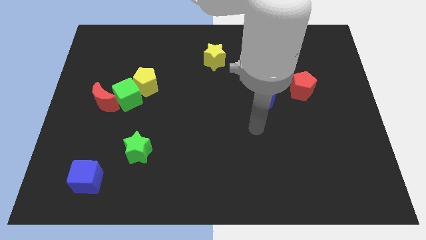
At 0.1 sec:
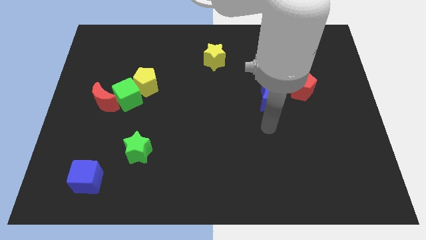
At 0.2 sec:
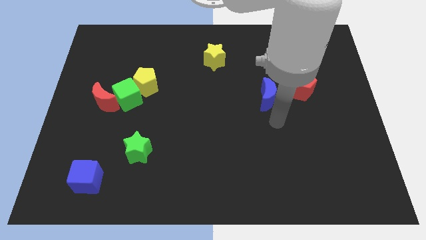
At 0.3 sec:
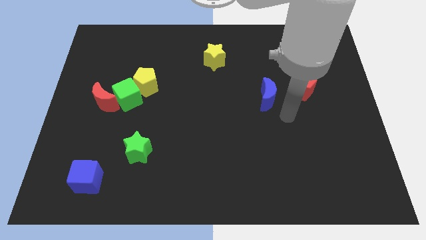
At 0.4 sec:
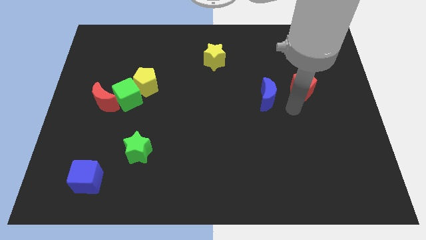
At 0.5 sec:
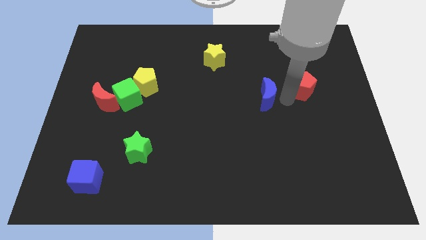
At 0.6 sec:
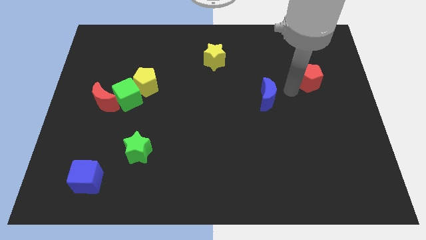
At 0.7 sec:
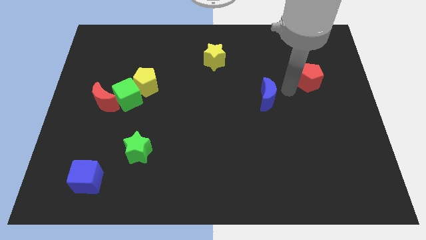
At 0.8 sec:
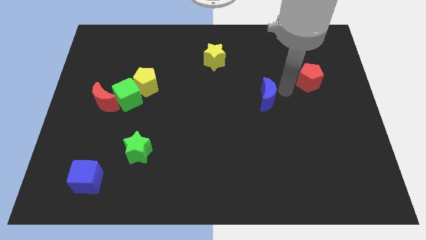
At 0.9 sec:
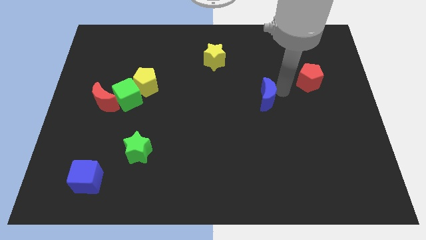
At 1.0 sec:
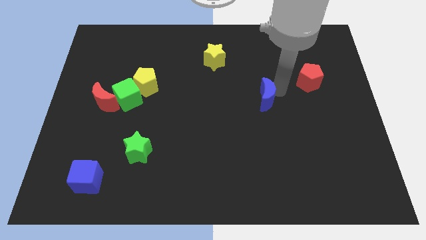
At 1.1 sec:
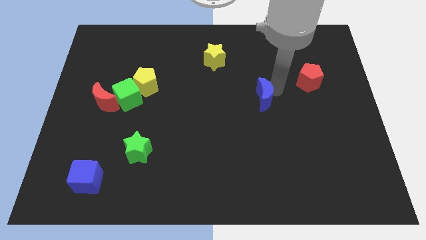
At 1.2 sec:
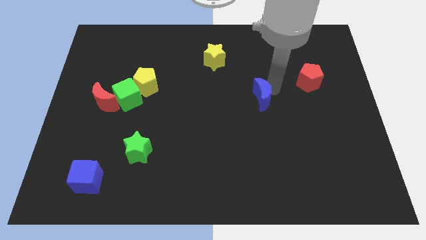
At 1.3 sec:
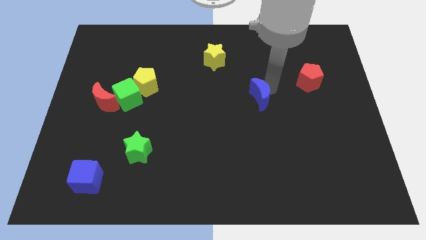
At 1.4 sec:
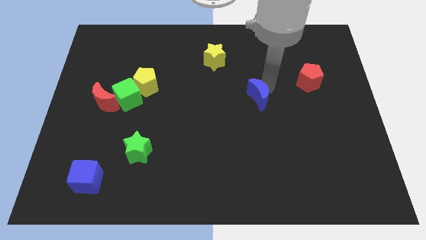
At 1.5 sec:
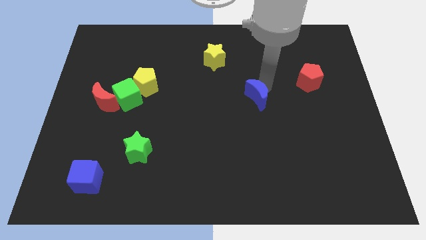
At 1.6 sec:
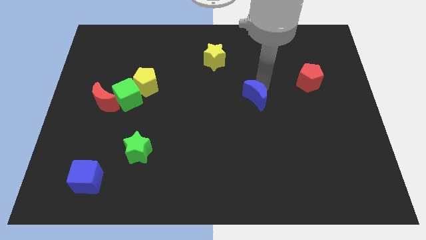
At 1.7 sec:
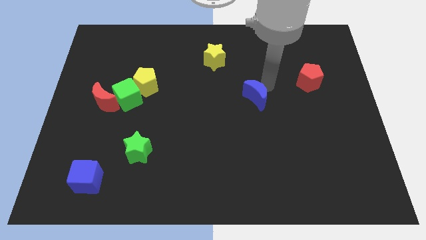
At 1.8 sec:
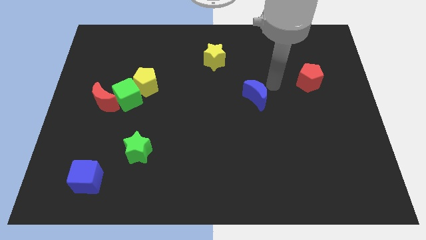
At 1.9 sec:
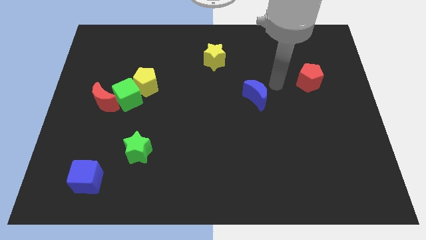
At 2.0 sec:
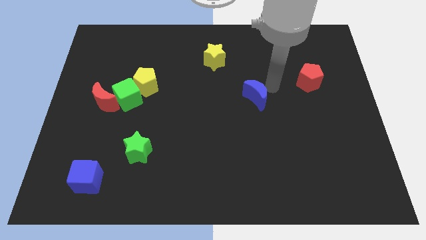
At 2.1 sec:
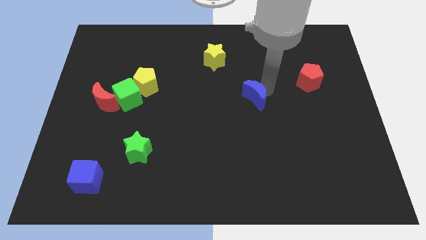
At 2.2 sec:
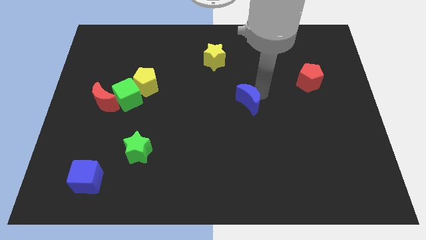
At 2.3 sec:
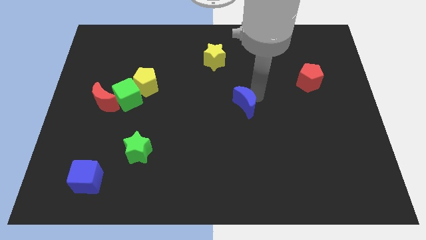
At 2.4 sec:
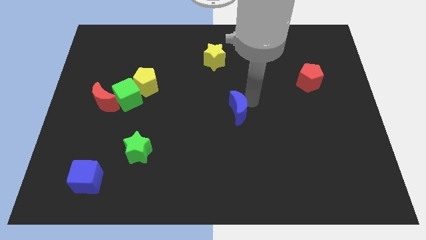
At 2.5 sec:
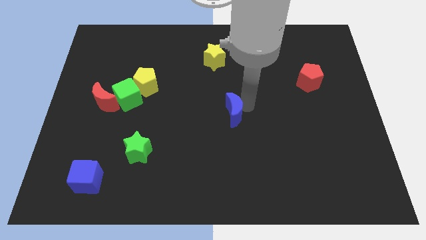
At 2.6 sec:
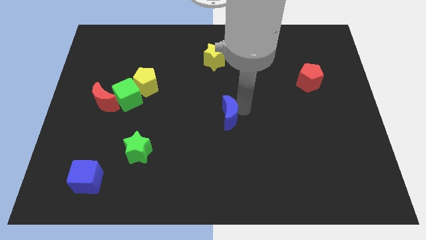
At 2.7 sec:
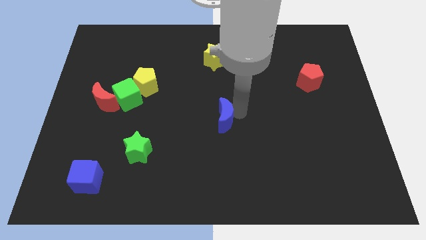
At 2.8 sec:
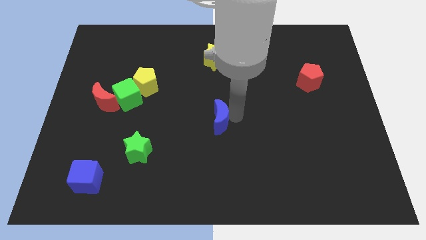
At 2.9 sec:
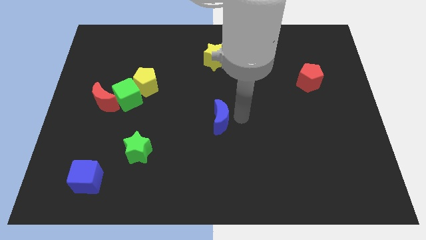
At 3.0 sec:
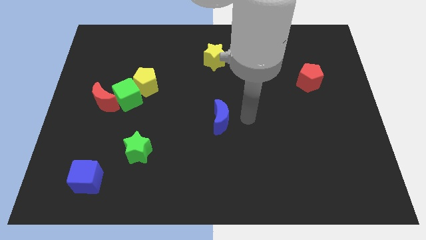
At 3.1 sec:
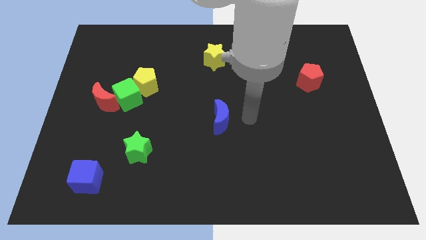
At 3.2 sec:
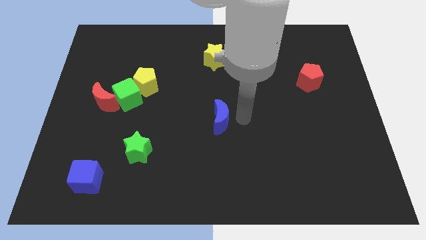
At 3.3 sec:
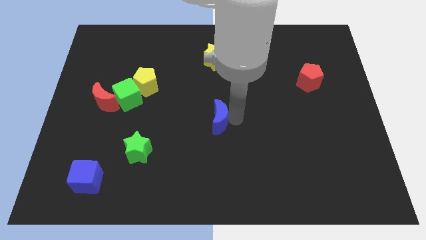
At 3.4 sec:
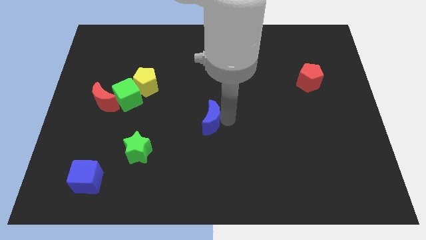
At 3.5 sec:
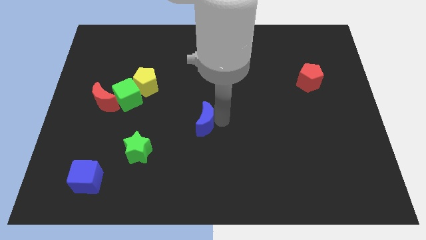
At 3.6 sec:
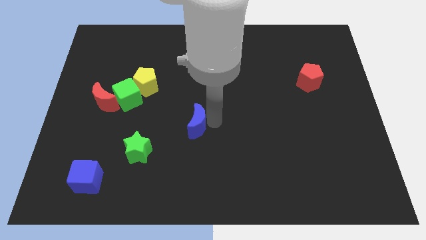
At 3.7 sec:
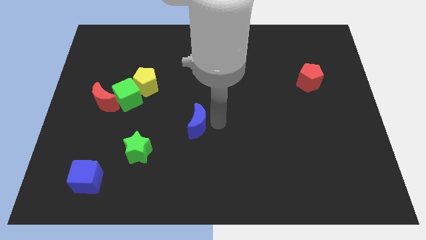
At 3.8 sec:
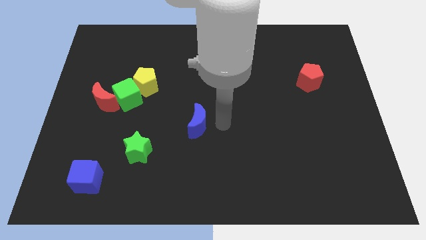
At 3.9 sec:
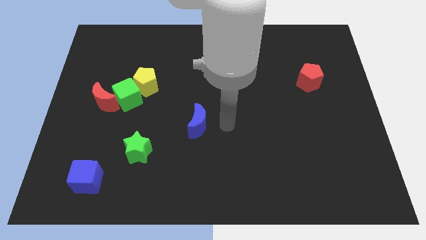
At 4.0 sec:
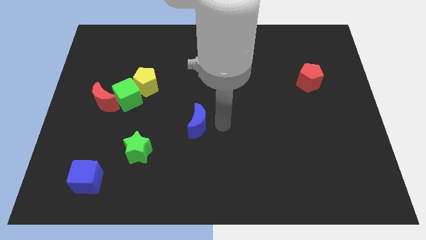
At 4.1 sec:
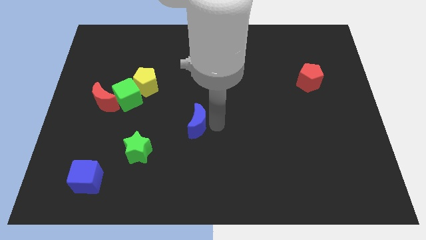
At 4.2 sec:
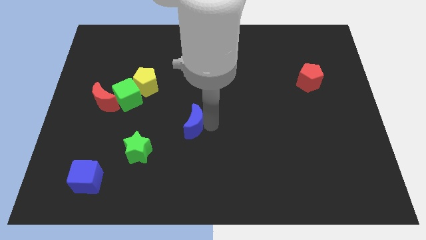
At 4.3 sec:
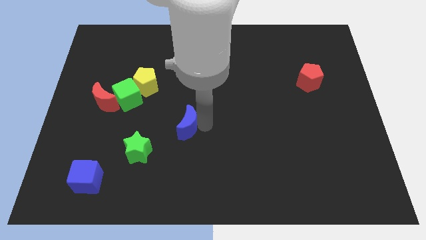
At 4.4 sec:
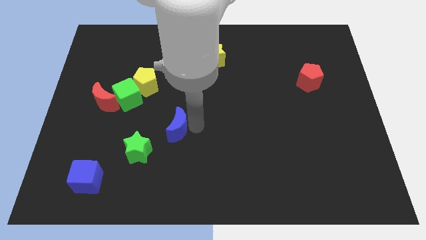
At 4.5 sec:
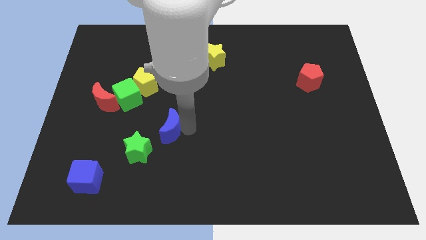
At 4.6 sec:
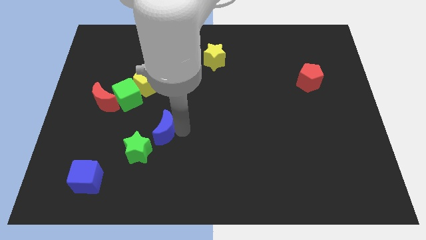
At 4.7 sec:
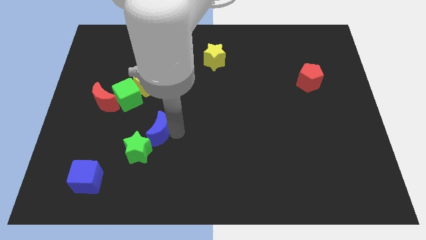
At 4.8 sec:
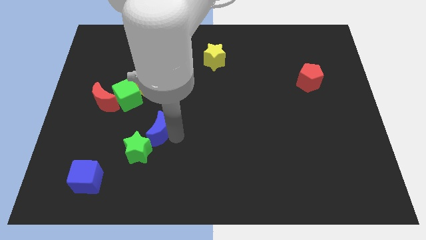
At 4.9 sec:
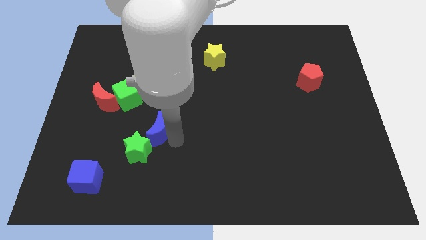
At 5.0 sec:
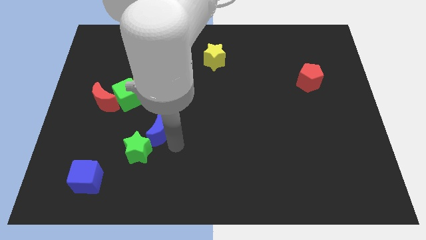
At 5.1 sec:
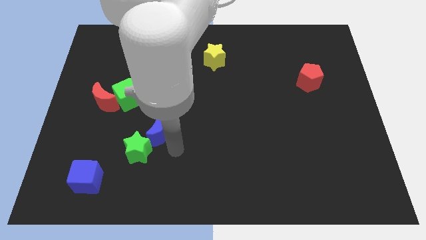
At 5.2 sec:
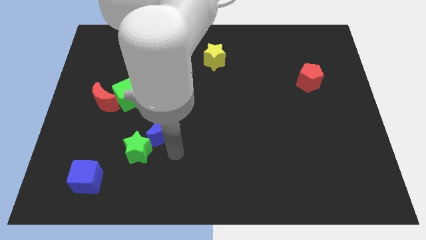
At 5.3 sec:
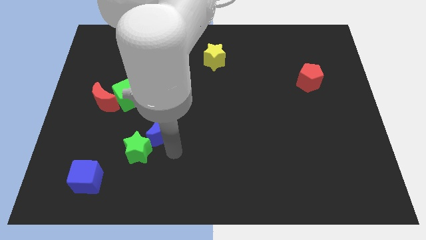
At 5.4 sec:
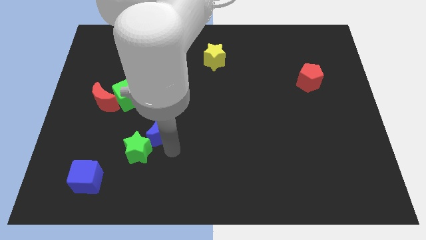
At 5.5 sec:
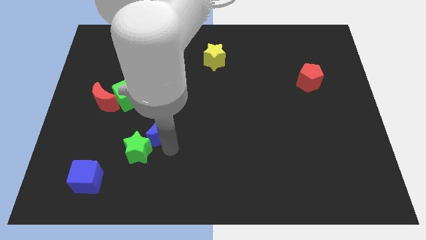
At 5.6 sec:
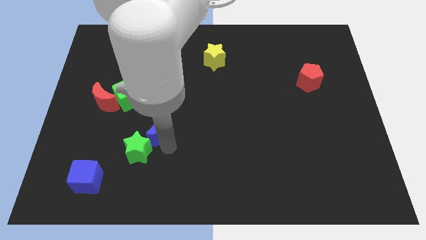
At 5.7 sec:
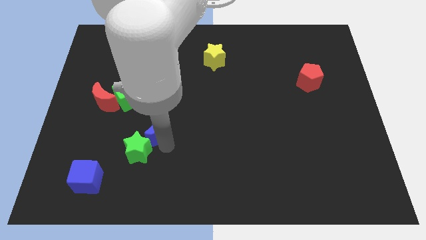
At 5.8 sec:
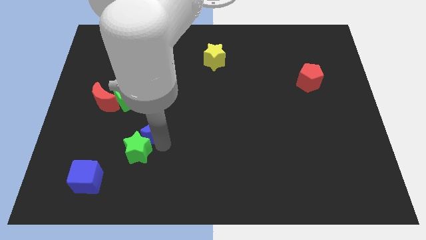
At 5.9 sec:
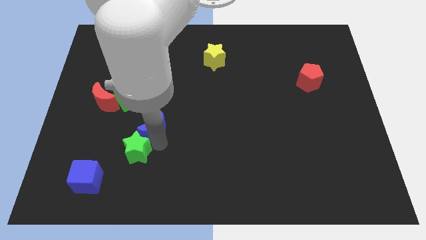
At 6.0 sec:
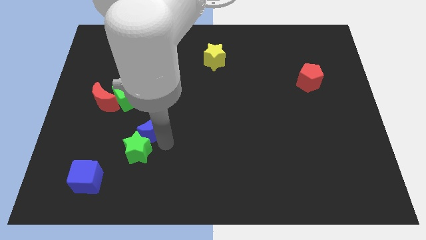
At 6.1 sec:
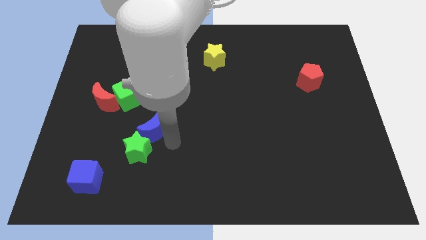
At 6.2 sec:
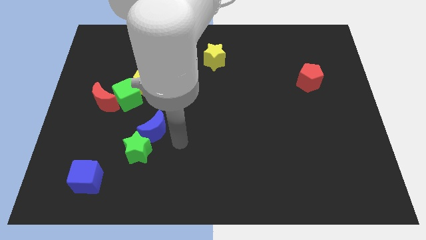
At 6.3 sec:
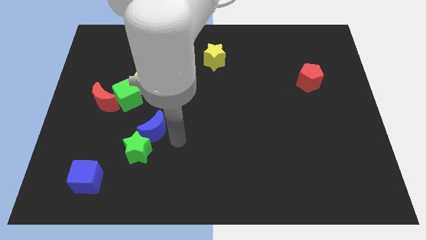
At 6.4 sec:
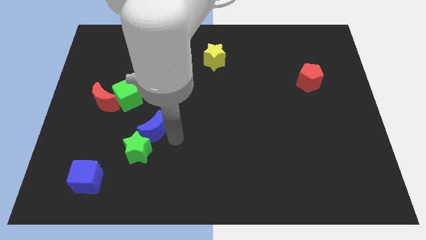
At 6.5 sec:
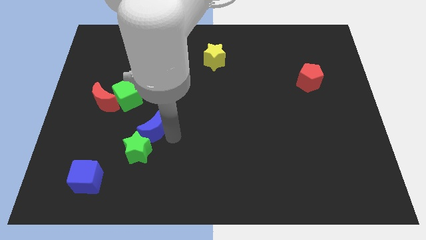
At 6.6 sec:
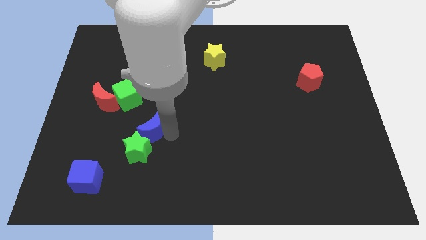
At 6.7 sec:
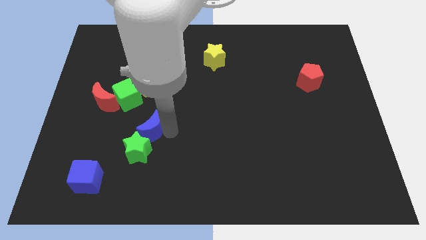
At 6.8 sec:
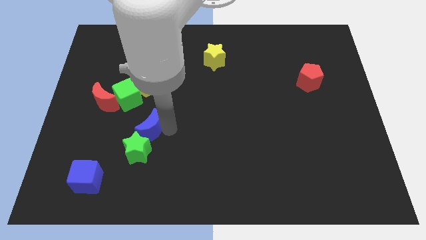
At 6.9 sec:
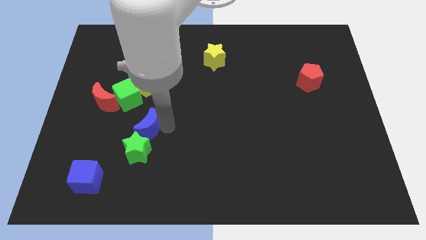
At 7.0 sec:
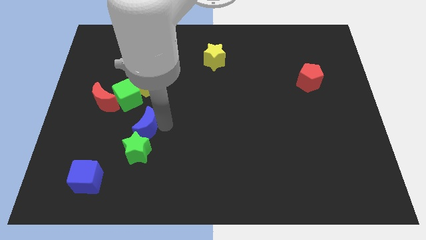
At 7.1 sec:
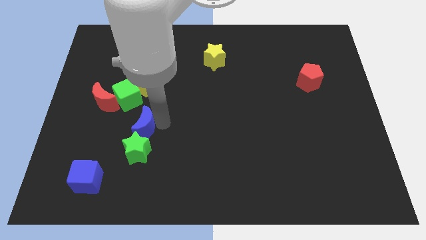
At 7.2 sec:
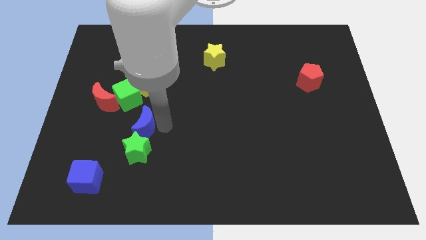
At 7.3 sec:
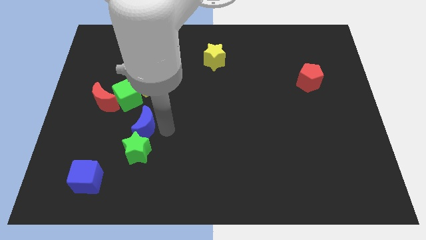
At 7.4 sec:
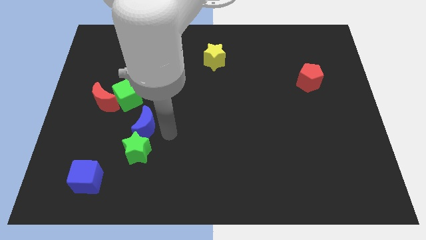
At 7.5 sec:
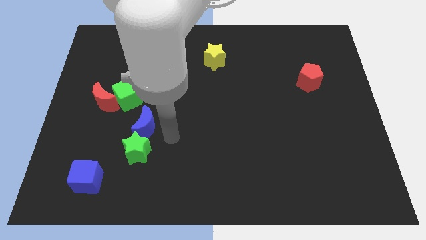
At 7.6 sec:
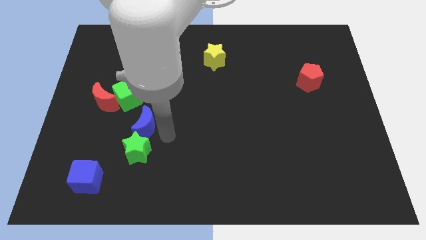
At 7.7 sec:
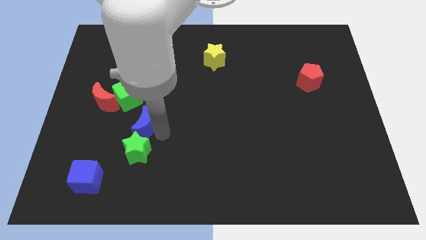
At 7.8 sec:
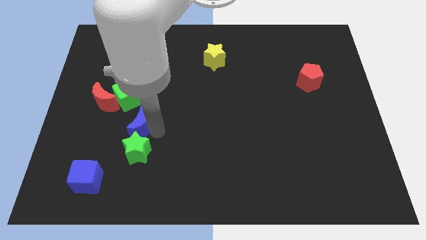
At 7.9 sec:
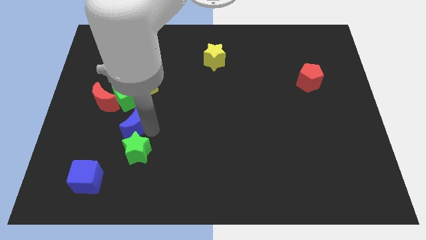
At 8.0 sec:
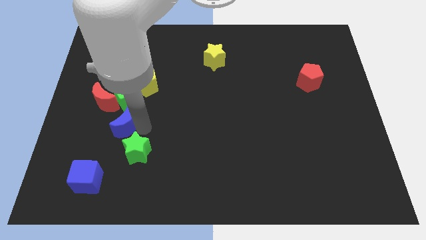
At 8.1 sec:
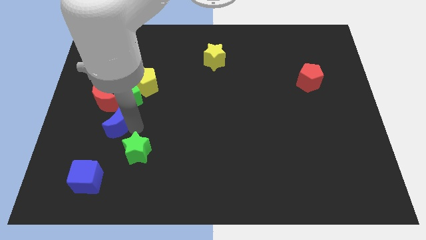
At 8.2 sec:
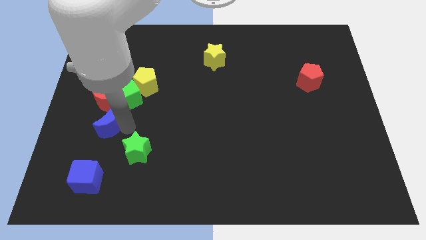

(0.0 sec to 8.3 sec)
push the blue moon to the bottom left of the green cube
